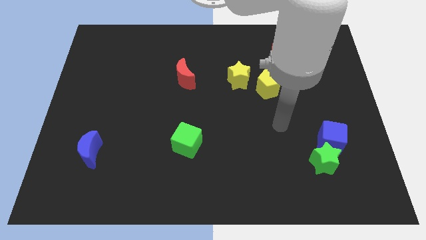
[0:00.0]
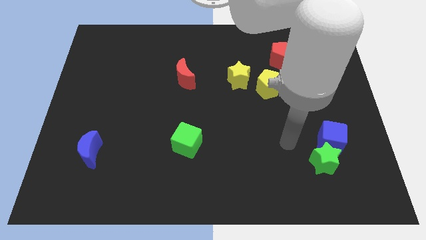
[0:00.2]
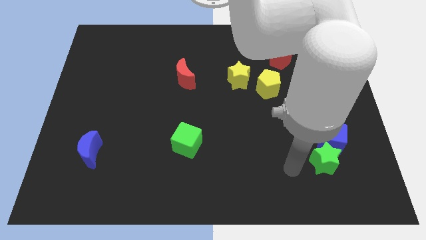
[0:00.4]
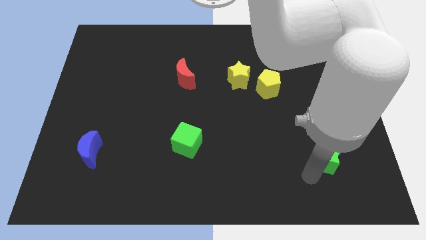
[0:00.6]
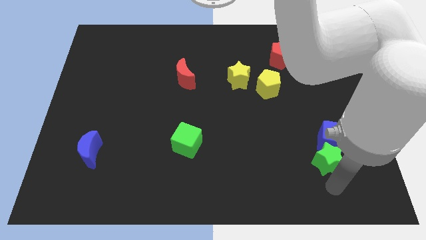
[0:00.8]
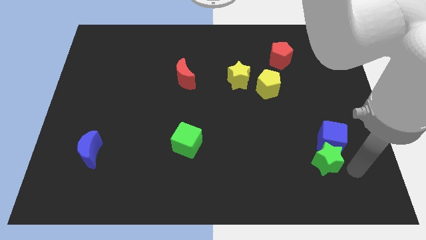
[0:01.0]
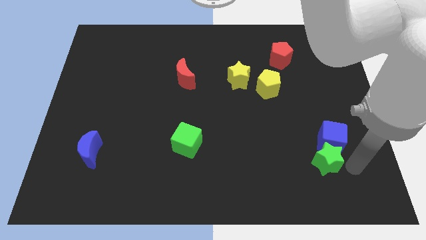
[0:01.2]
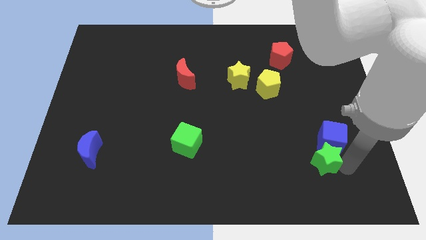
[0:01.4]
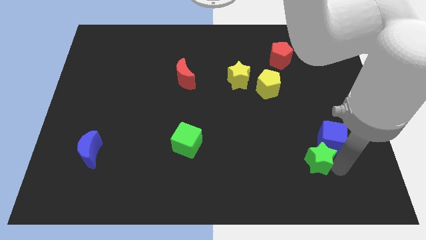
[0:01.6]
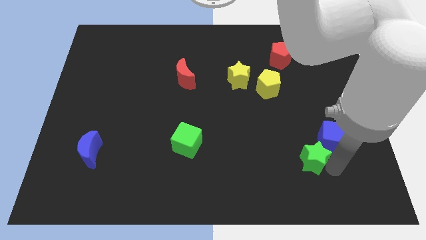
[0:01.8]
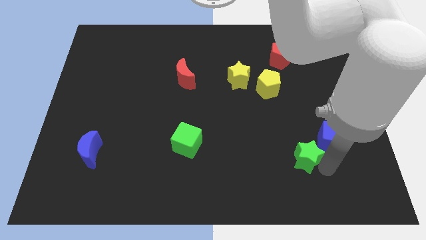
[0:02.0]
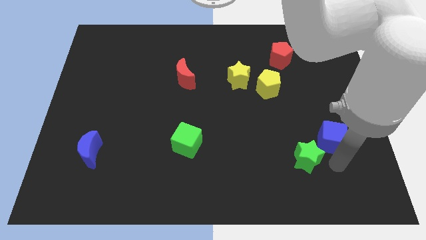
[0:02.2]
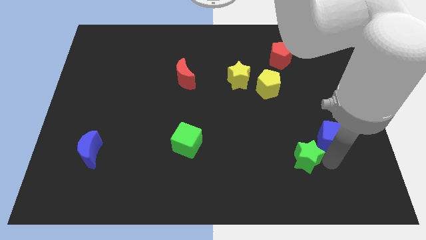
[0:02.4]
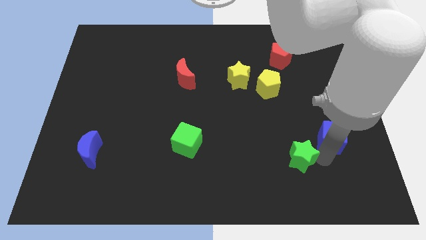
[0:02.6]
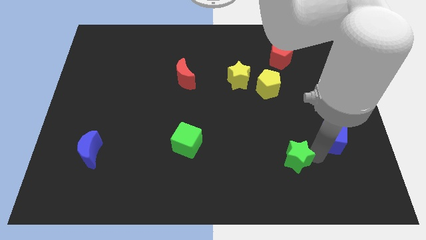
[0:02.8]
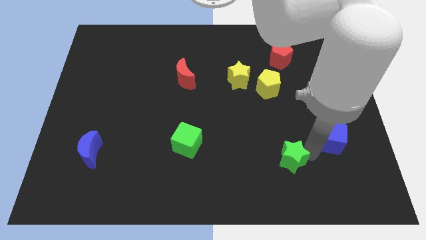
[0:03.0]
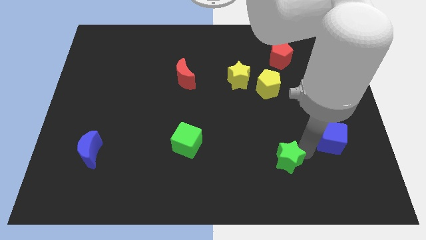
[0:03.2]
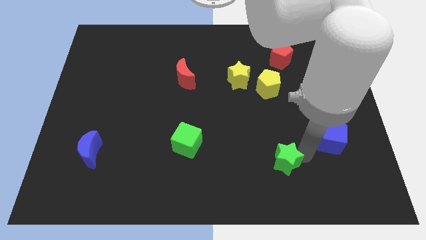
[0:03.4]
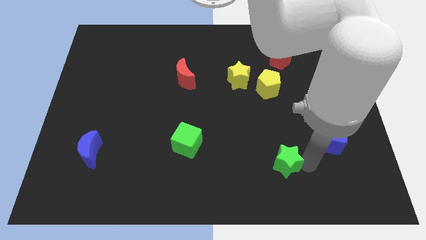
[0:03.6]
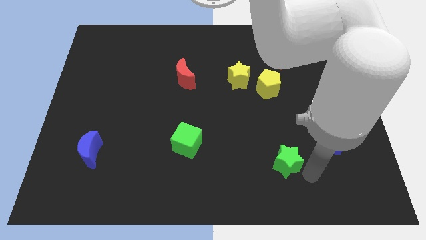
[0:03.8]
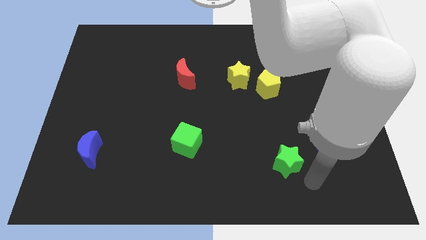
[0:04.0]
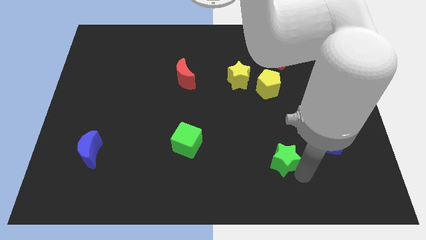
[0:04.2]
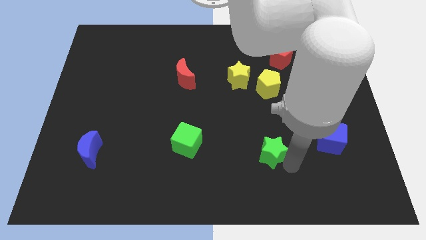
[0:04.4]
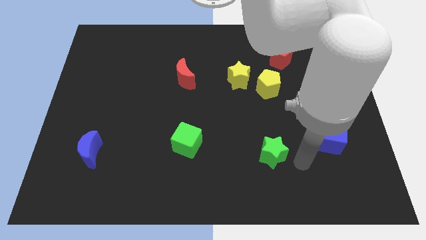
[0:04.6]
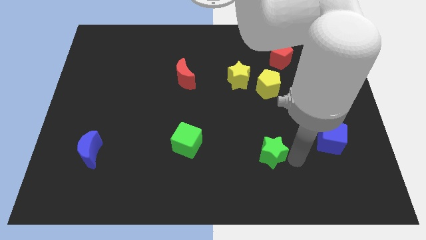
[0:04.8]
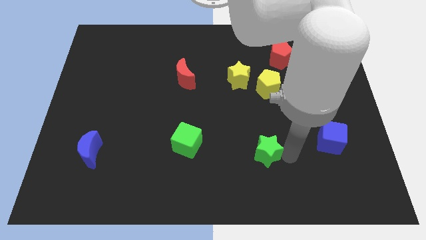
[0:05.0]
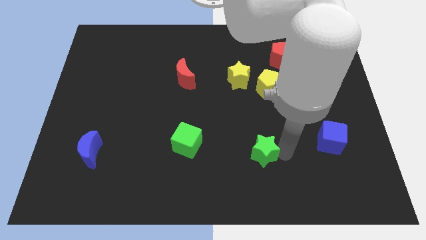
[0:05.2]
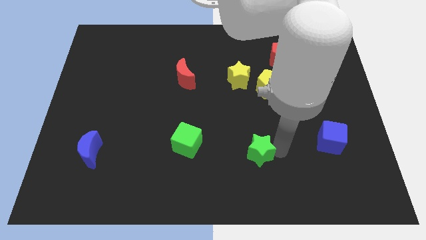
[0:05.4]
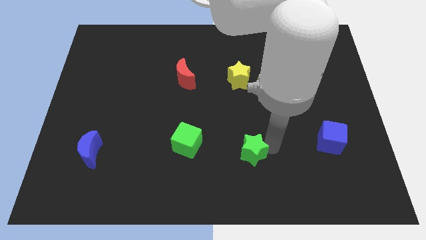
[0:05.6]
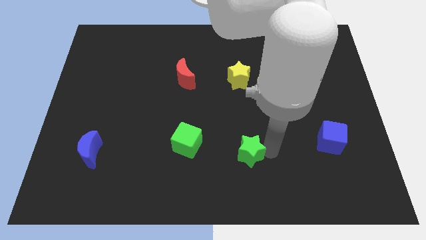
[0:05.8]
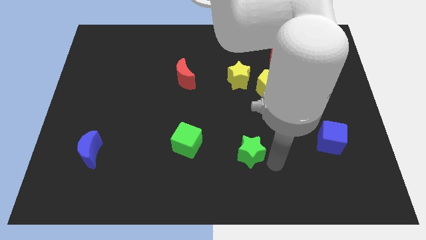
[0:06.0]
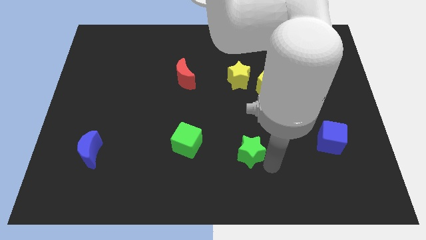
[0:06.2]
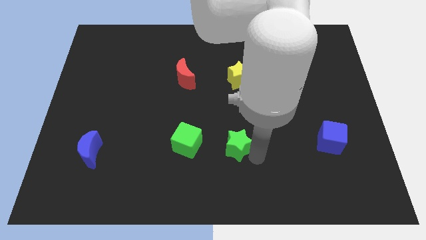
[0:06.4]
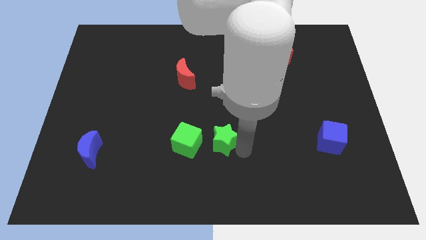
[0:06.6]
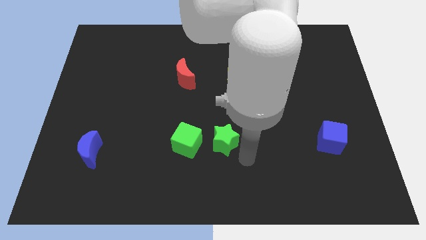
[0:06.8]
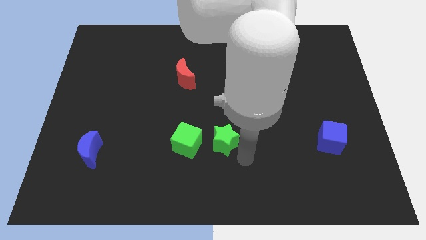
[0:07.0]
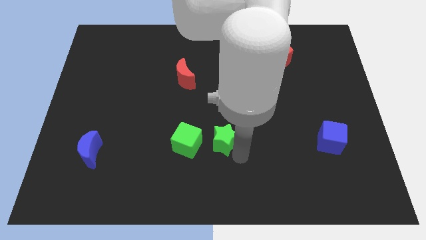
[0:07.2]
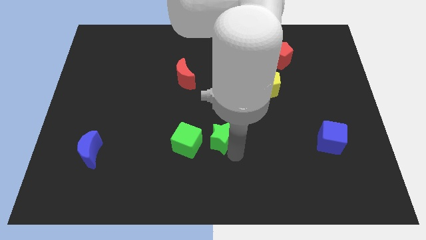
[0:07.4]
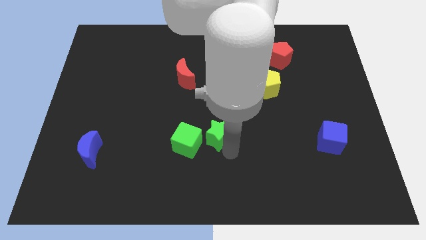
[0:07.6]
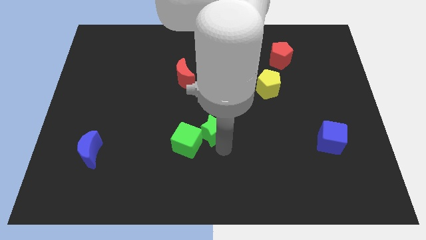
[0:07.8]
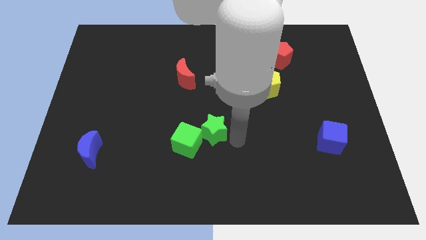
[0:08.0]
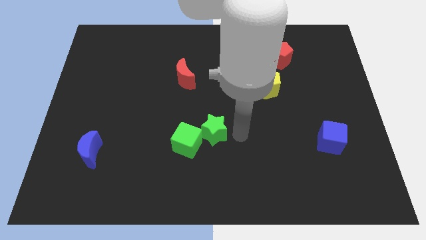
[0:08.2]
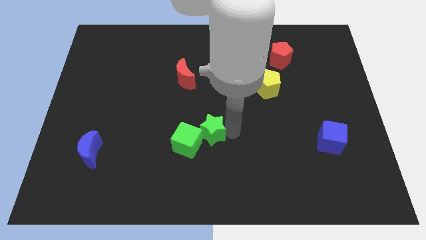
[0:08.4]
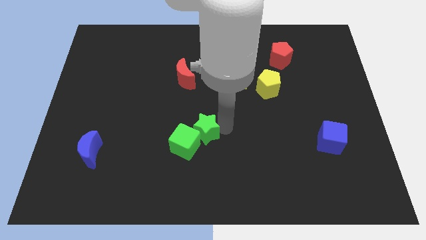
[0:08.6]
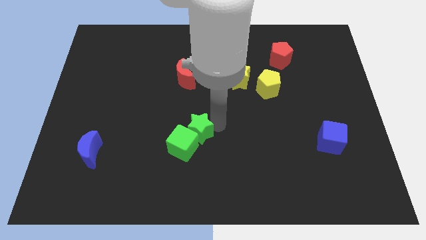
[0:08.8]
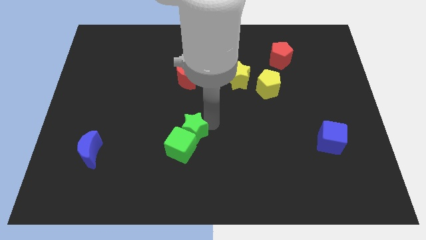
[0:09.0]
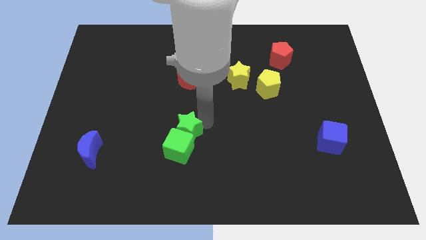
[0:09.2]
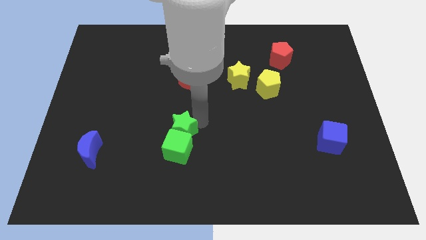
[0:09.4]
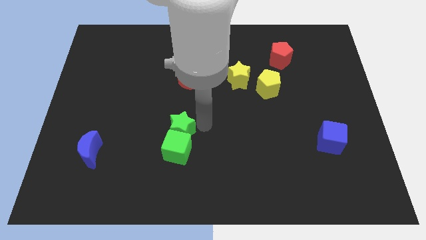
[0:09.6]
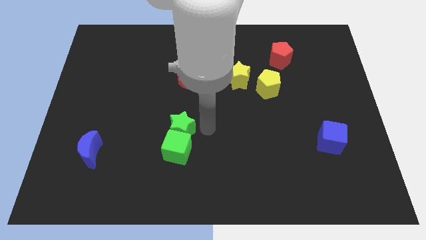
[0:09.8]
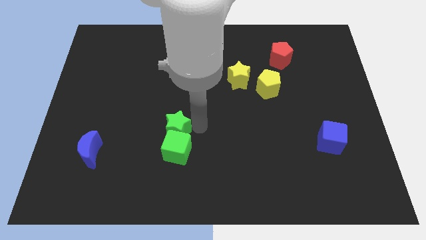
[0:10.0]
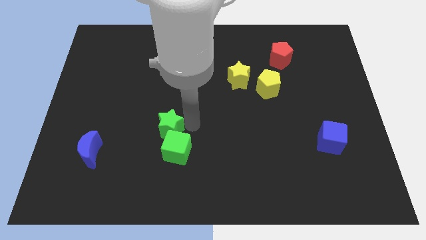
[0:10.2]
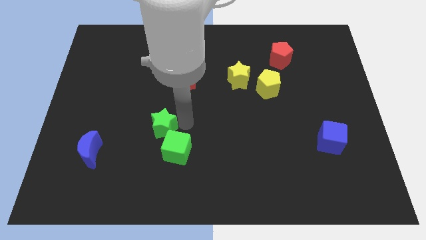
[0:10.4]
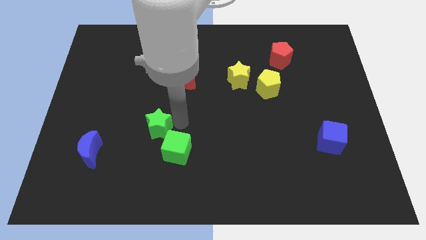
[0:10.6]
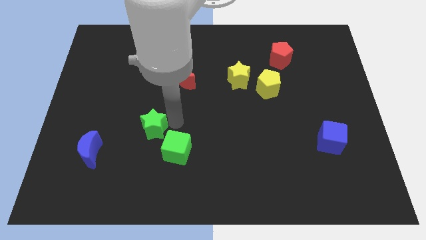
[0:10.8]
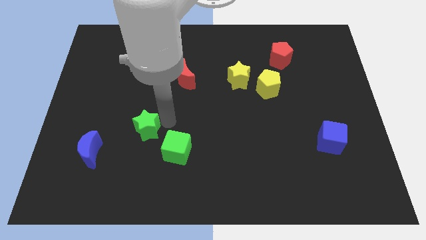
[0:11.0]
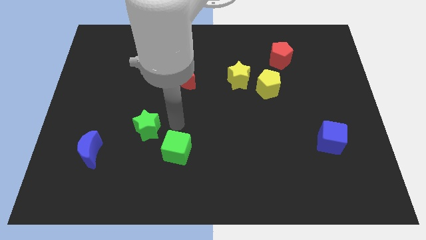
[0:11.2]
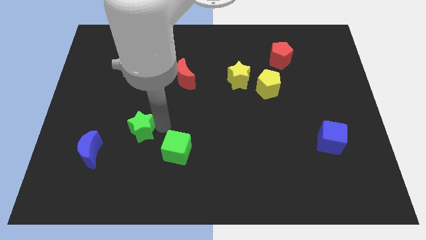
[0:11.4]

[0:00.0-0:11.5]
push the green star to the top right side of the blue moon

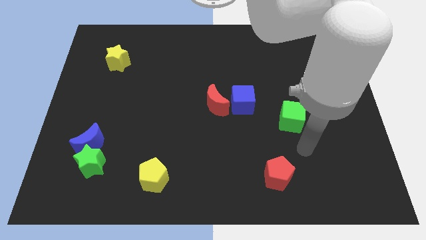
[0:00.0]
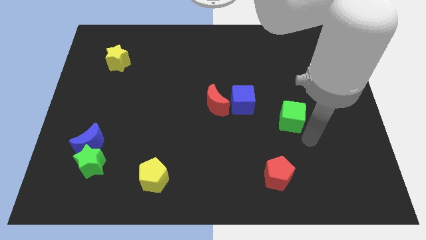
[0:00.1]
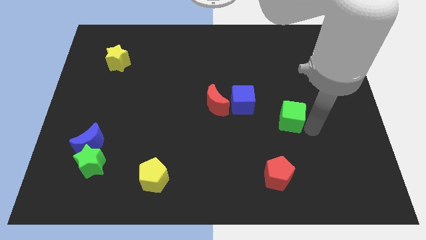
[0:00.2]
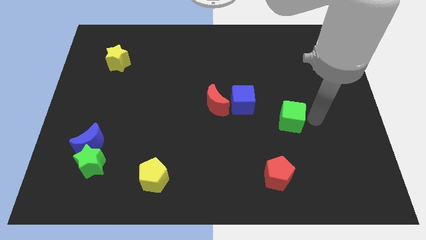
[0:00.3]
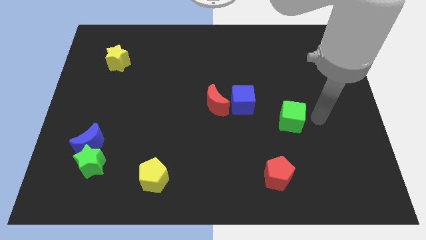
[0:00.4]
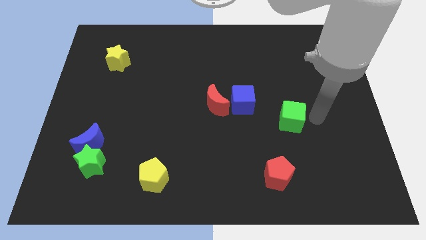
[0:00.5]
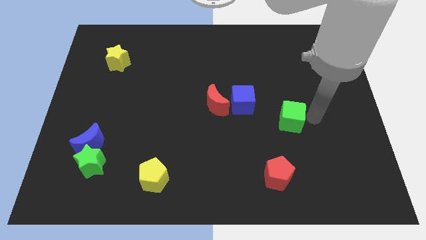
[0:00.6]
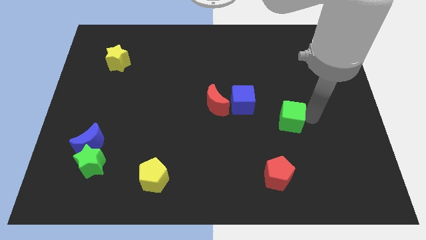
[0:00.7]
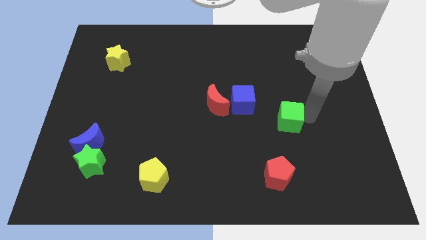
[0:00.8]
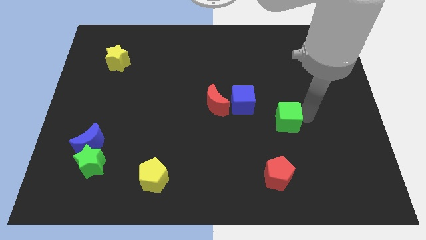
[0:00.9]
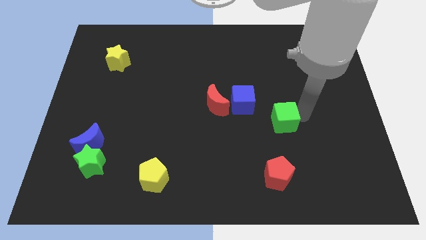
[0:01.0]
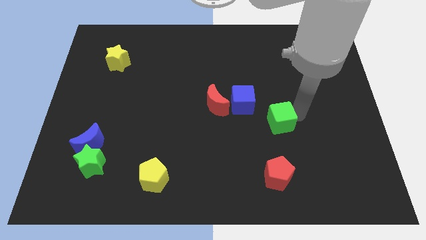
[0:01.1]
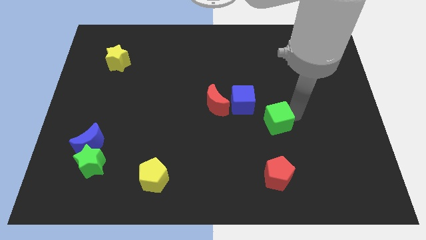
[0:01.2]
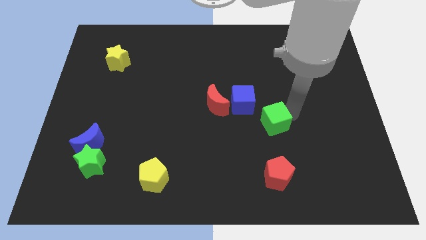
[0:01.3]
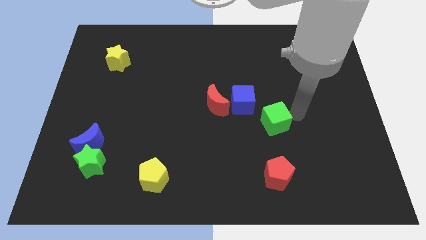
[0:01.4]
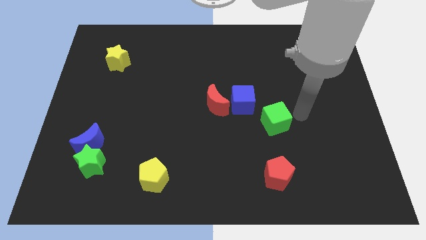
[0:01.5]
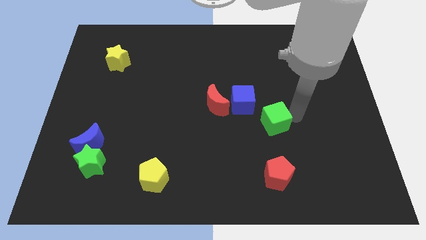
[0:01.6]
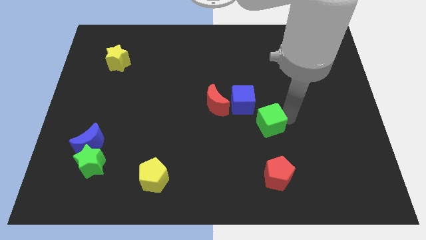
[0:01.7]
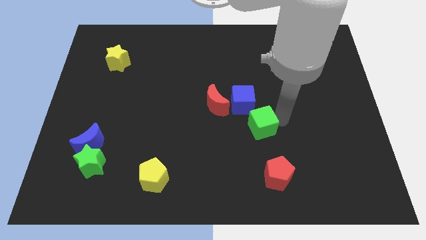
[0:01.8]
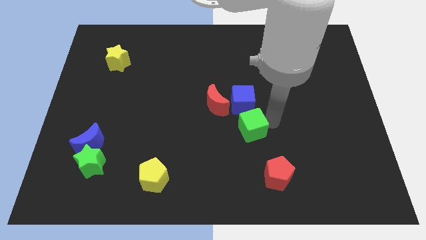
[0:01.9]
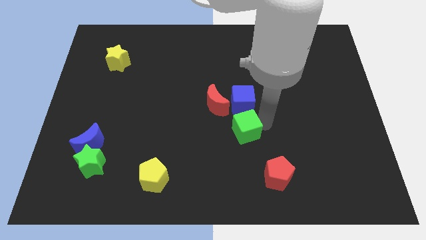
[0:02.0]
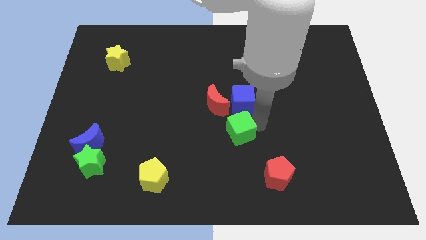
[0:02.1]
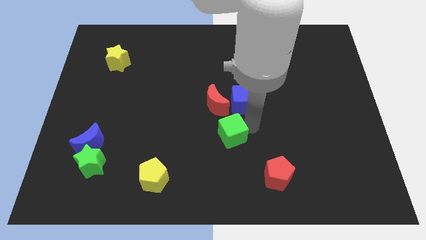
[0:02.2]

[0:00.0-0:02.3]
put the green cube to the bottom of the red moon
